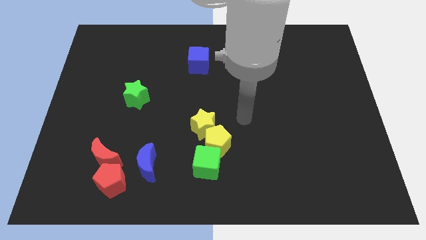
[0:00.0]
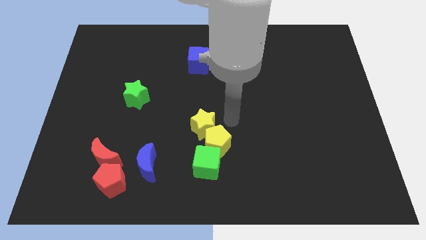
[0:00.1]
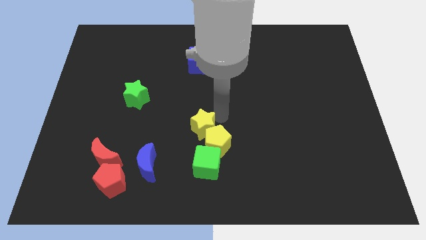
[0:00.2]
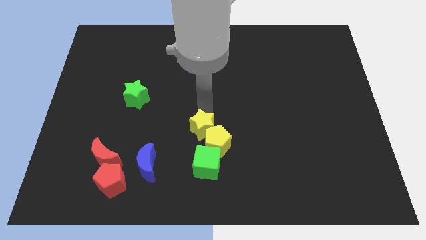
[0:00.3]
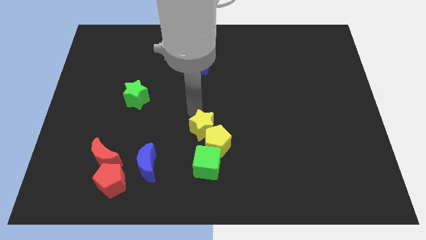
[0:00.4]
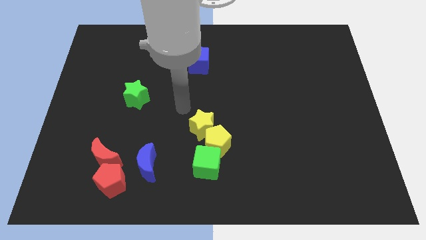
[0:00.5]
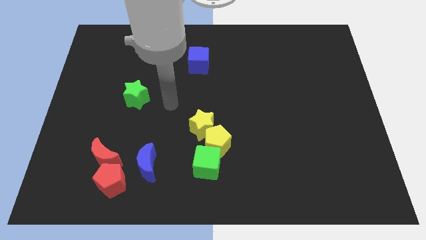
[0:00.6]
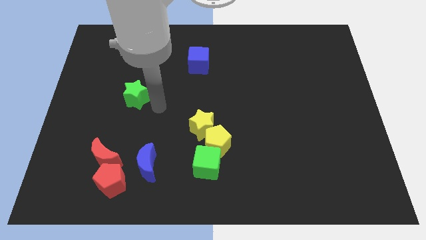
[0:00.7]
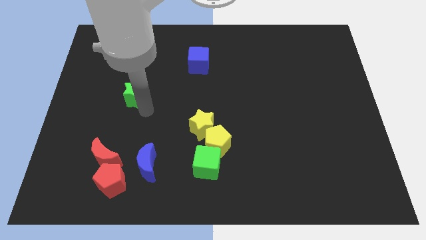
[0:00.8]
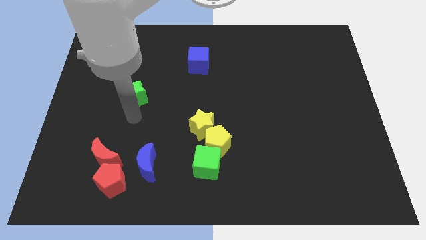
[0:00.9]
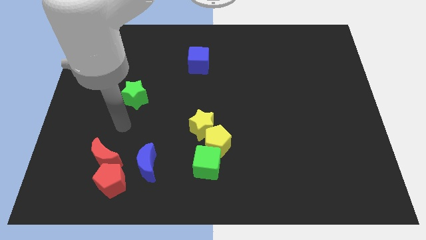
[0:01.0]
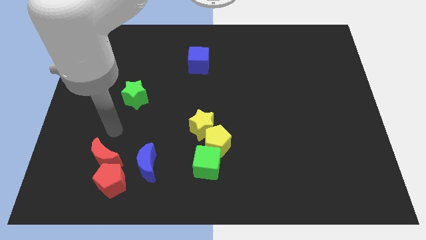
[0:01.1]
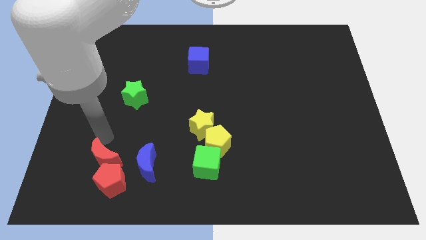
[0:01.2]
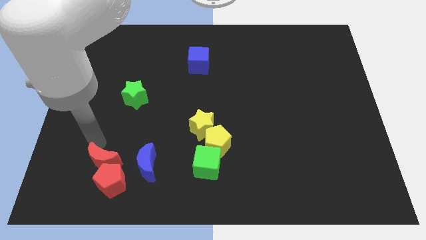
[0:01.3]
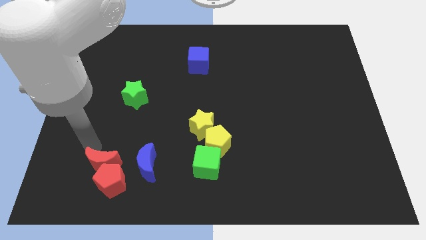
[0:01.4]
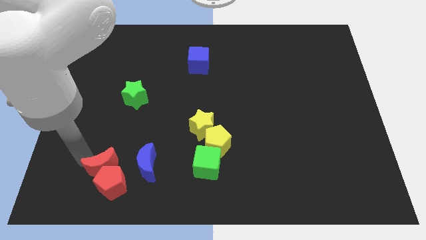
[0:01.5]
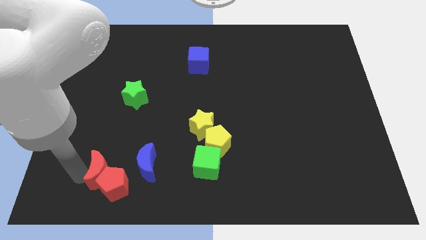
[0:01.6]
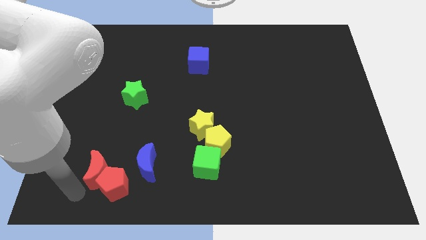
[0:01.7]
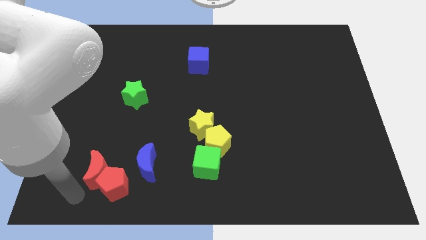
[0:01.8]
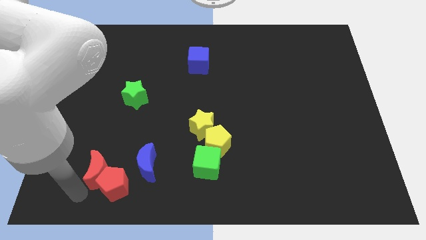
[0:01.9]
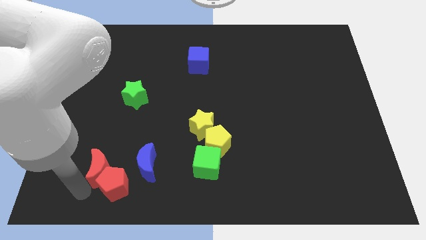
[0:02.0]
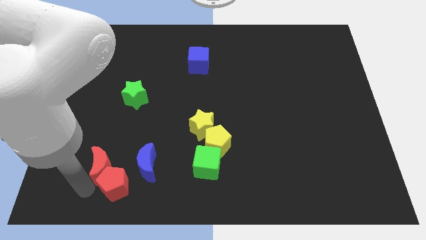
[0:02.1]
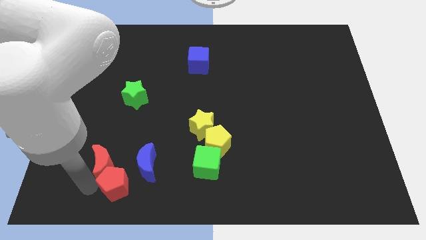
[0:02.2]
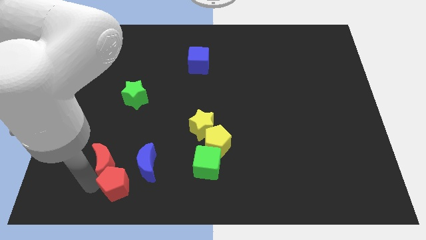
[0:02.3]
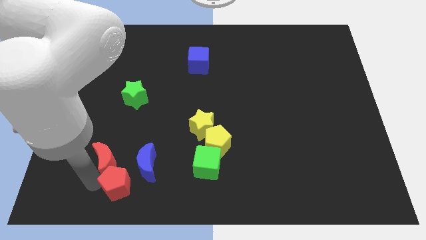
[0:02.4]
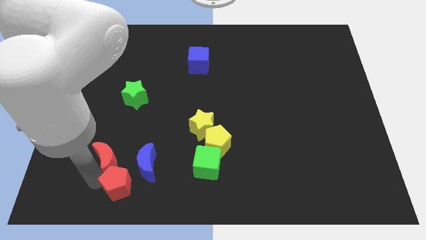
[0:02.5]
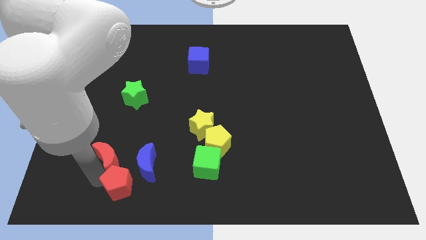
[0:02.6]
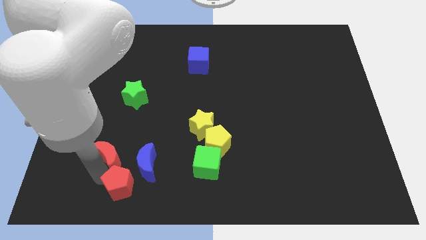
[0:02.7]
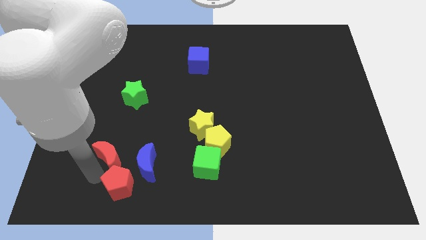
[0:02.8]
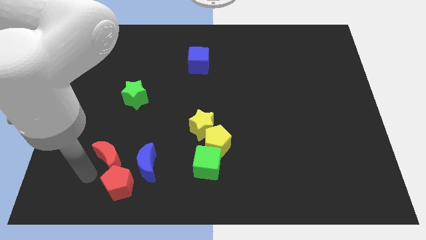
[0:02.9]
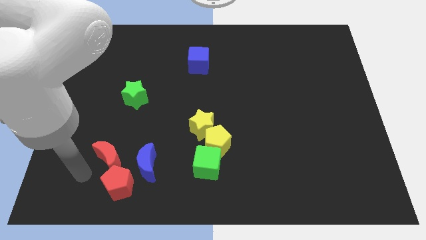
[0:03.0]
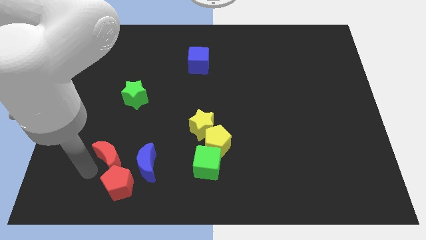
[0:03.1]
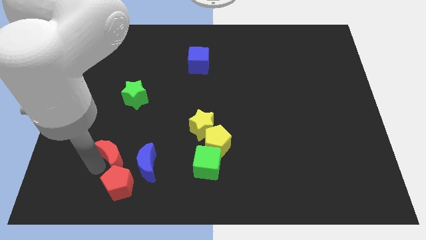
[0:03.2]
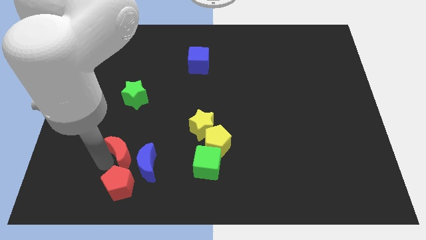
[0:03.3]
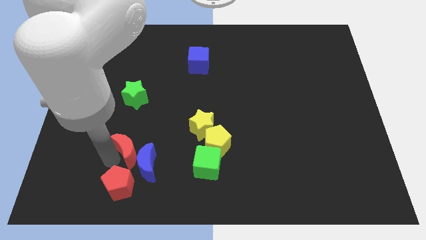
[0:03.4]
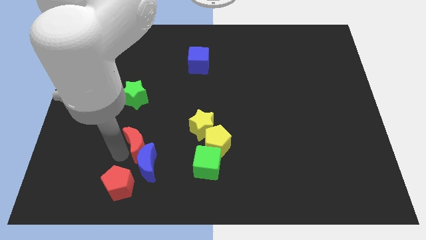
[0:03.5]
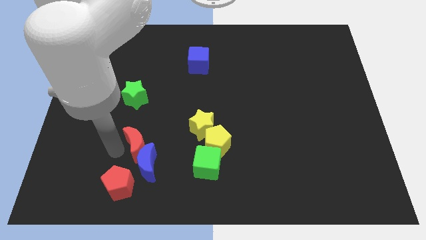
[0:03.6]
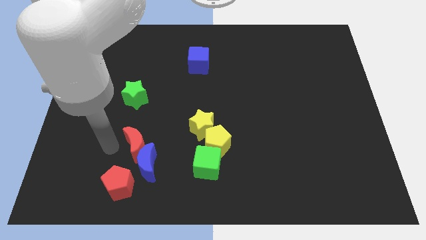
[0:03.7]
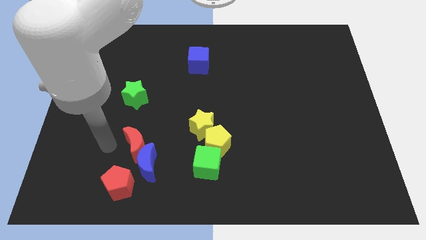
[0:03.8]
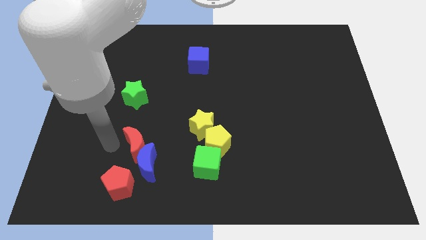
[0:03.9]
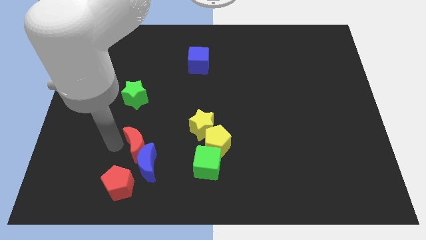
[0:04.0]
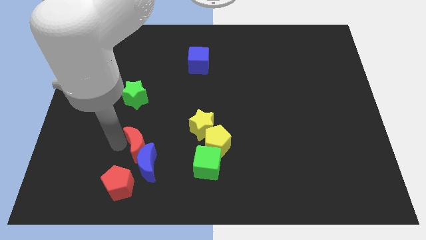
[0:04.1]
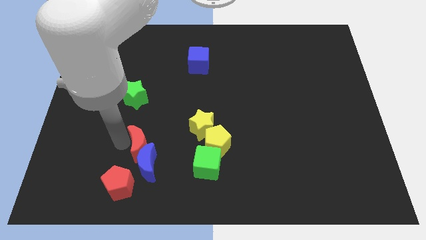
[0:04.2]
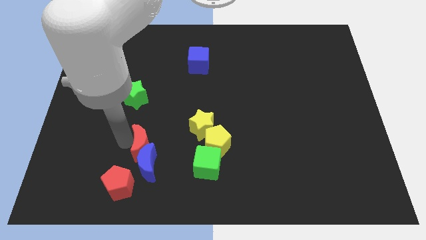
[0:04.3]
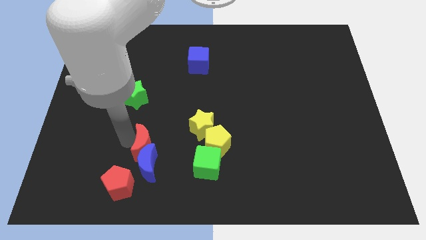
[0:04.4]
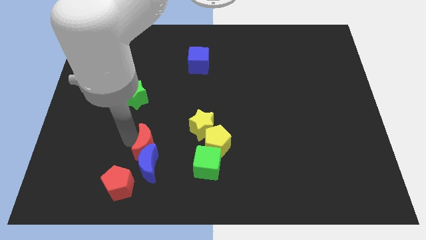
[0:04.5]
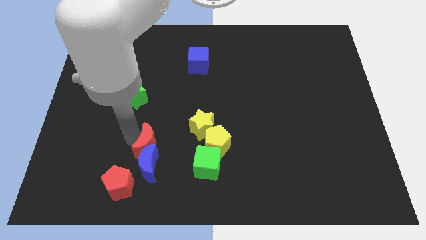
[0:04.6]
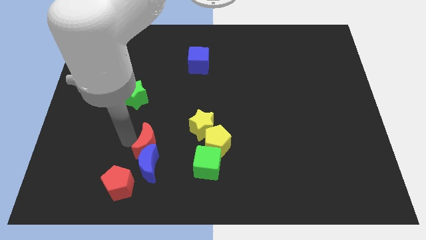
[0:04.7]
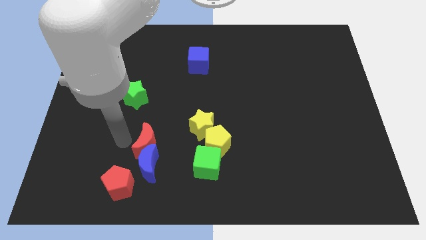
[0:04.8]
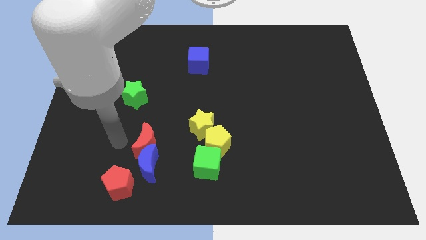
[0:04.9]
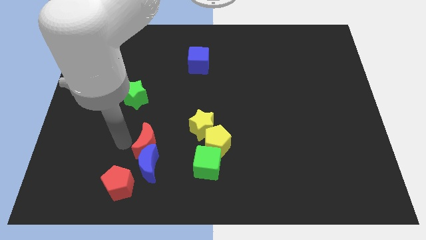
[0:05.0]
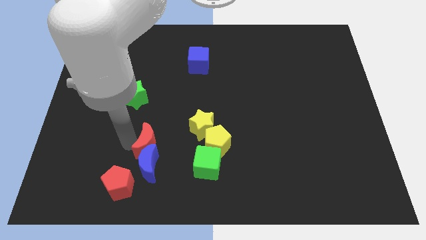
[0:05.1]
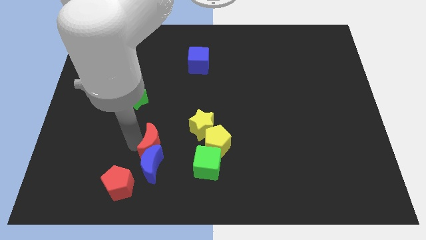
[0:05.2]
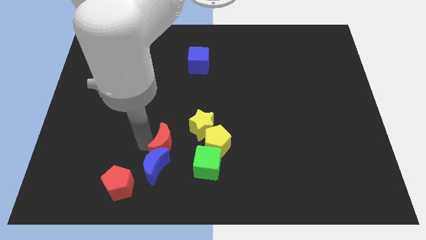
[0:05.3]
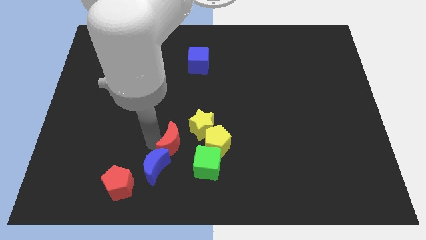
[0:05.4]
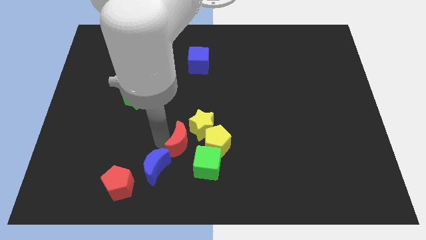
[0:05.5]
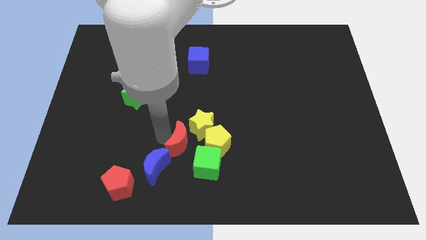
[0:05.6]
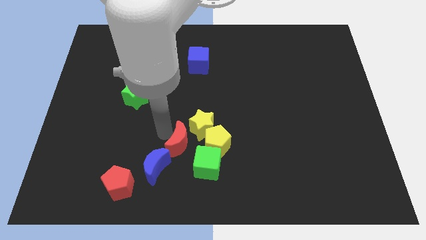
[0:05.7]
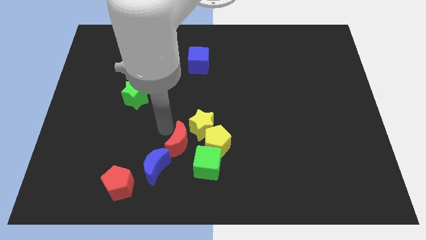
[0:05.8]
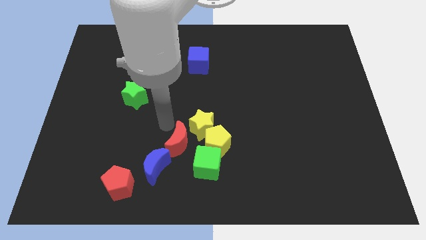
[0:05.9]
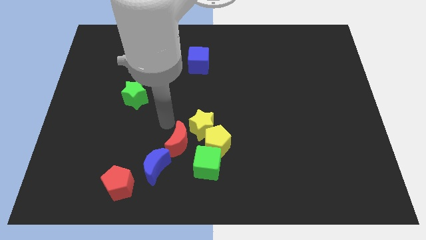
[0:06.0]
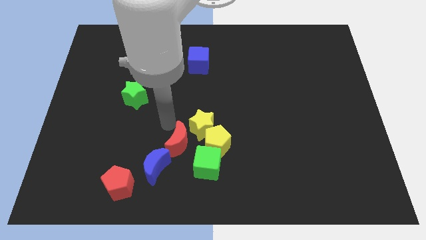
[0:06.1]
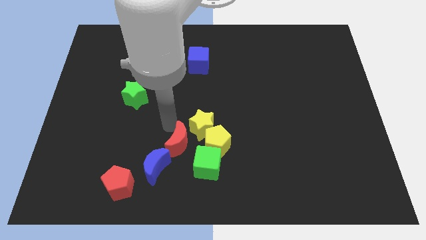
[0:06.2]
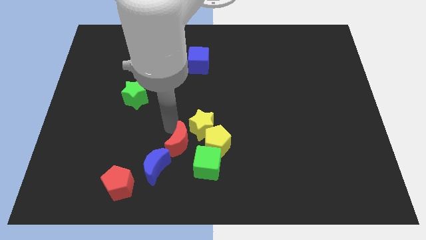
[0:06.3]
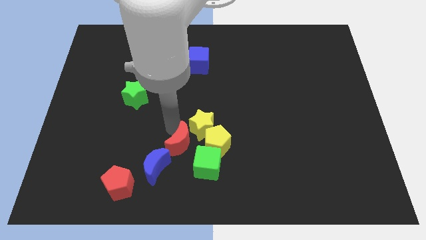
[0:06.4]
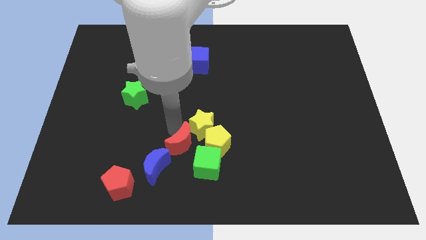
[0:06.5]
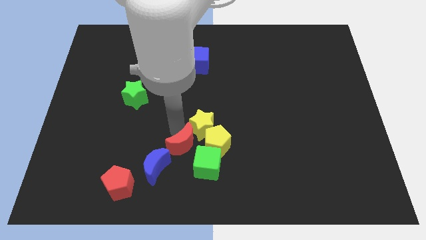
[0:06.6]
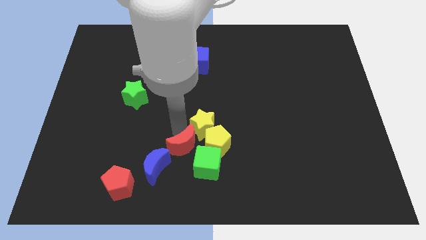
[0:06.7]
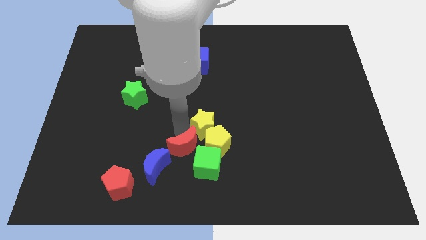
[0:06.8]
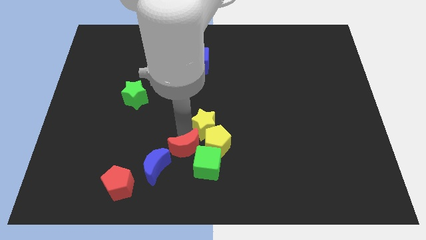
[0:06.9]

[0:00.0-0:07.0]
move the red moon to the green cube
